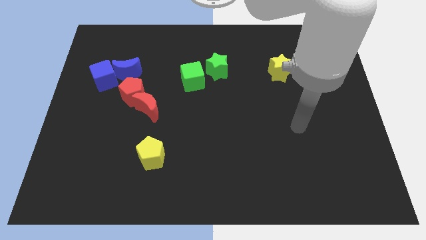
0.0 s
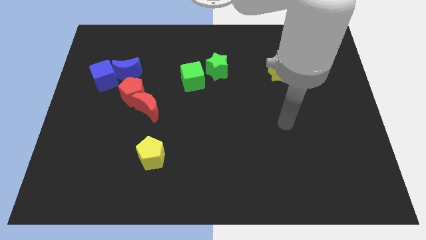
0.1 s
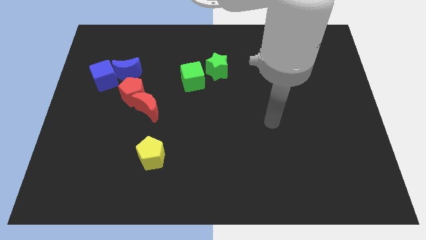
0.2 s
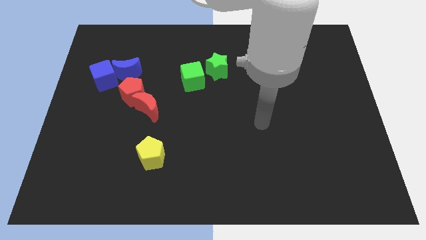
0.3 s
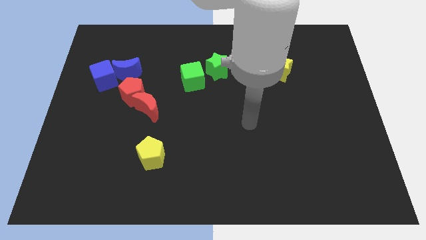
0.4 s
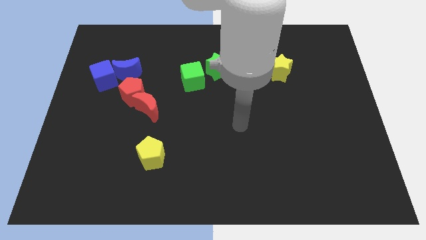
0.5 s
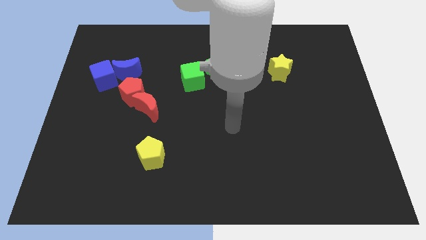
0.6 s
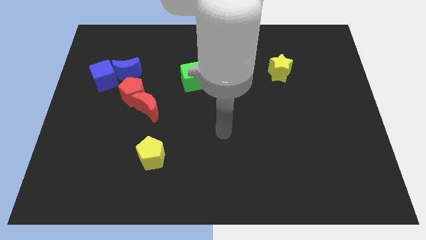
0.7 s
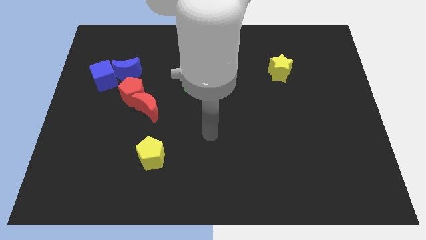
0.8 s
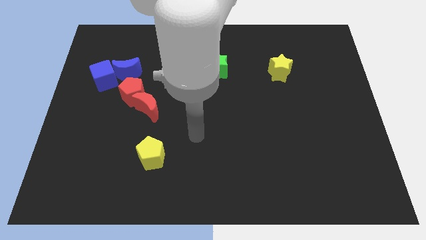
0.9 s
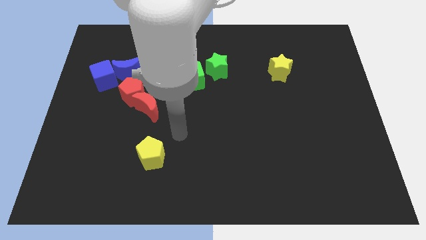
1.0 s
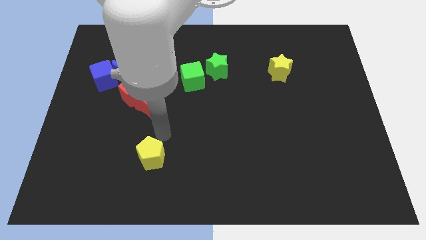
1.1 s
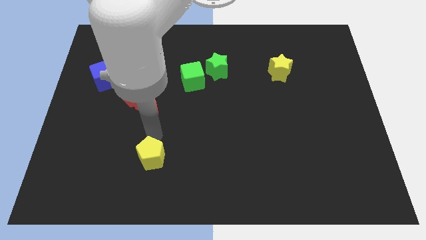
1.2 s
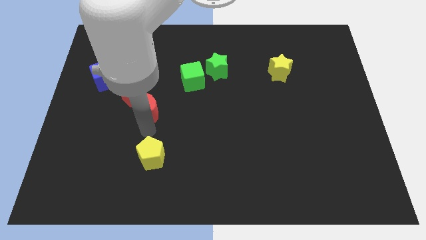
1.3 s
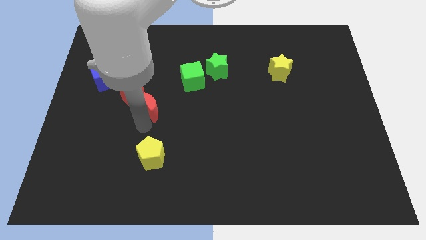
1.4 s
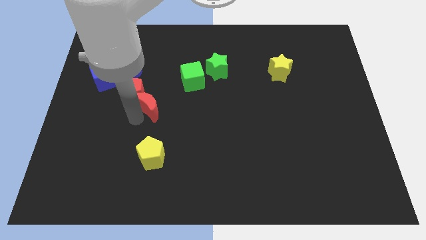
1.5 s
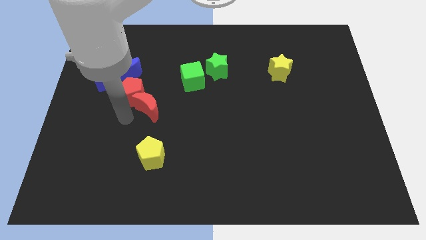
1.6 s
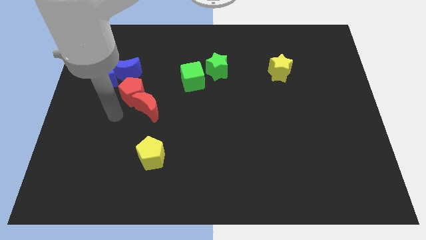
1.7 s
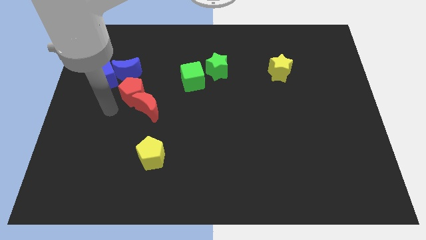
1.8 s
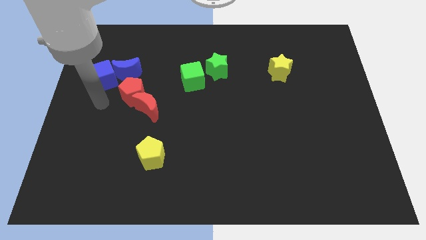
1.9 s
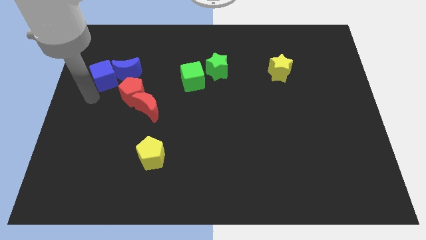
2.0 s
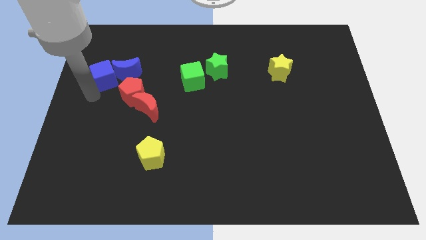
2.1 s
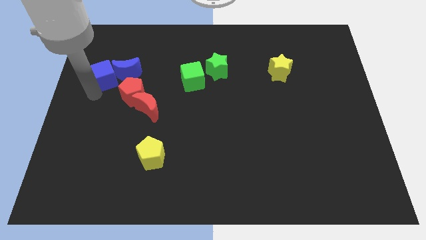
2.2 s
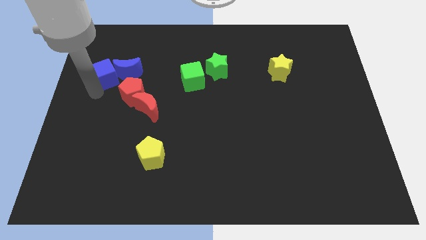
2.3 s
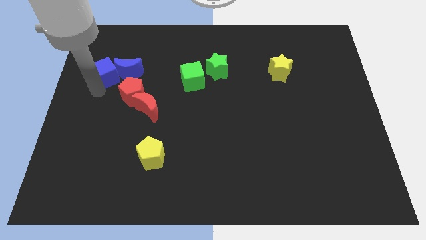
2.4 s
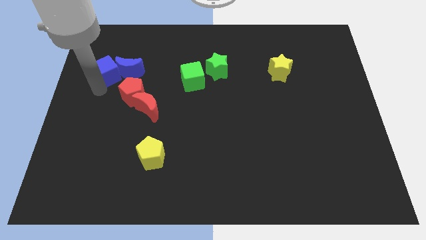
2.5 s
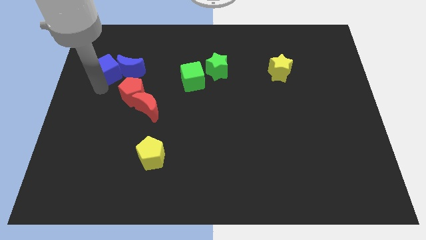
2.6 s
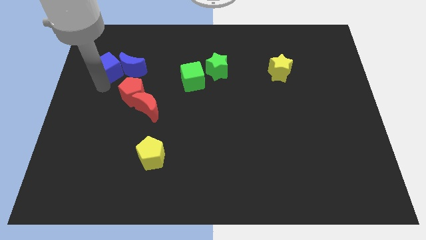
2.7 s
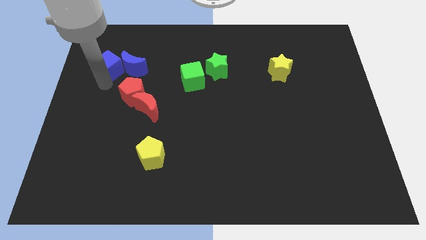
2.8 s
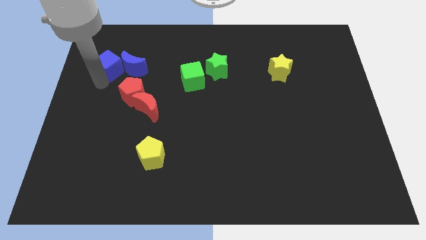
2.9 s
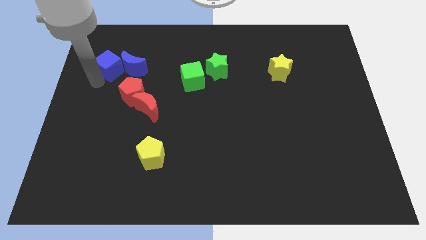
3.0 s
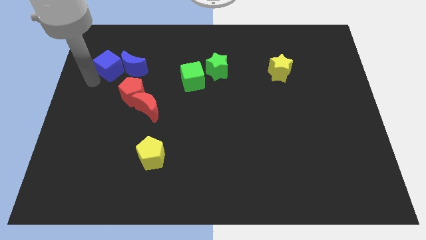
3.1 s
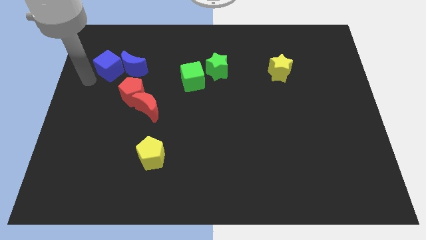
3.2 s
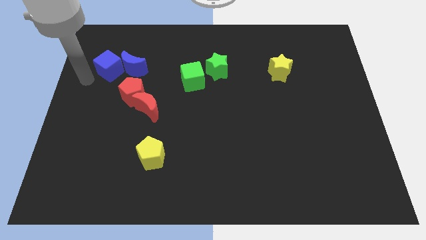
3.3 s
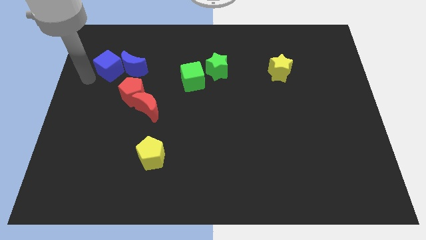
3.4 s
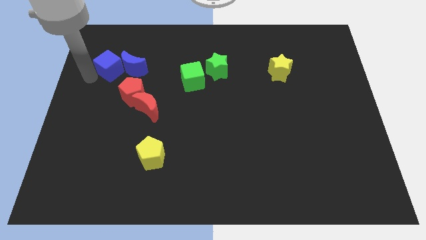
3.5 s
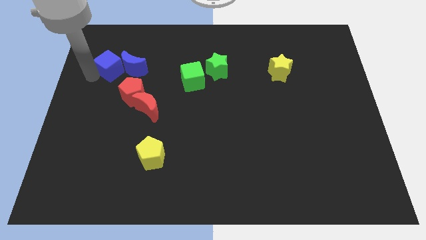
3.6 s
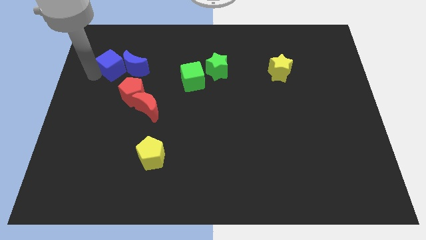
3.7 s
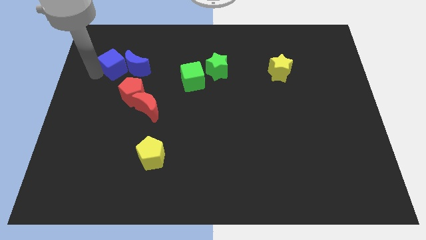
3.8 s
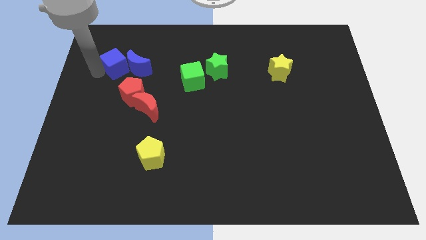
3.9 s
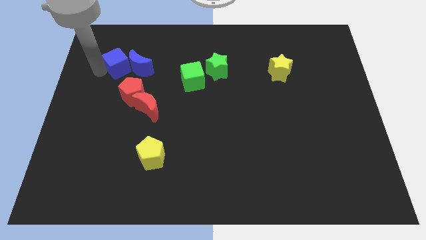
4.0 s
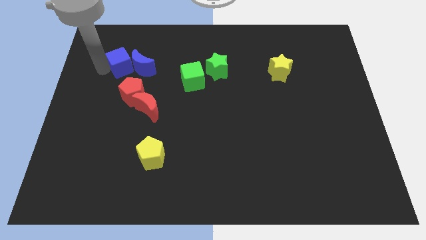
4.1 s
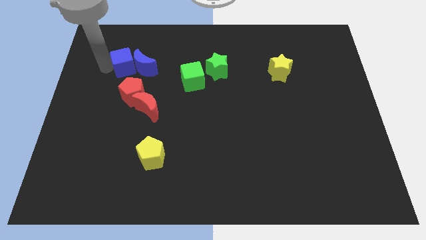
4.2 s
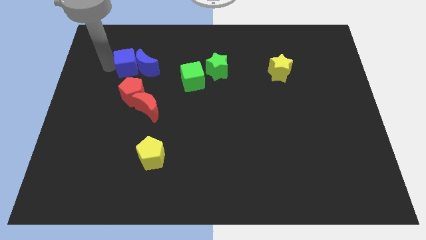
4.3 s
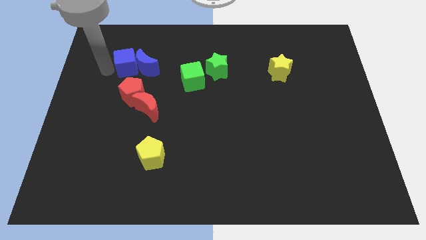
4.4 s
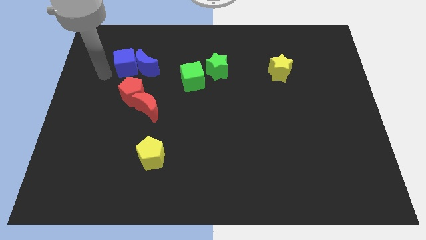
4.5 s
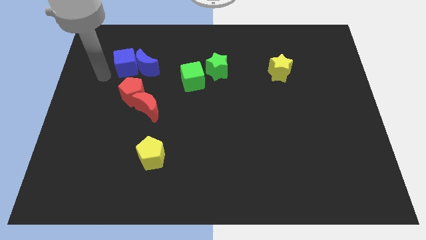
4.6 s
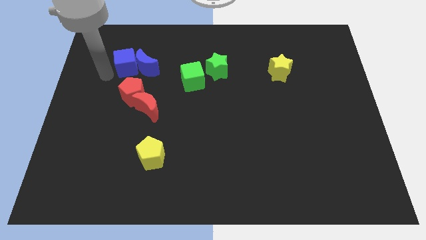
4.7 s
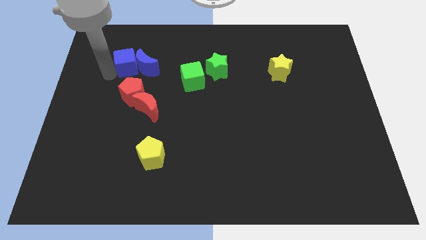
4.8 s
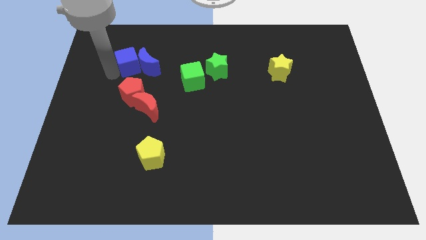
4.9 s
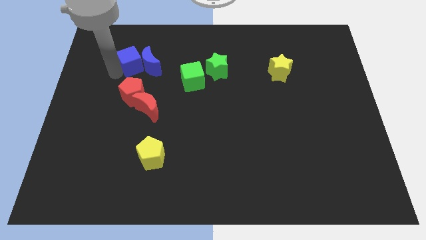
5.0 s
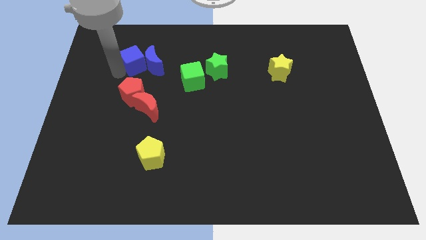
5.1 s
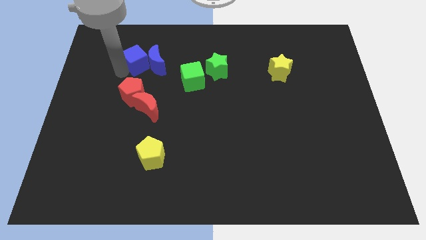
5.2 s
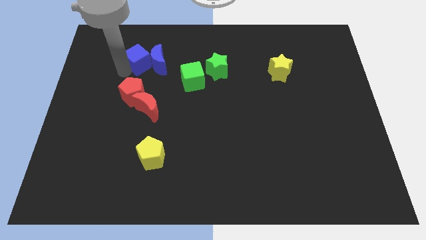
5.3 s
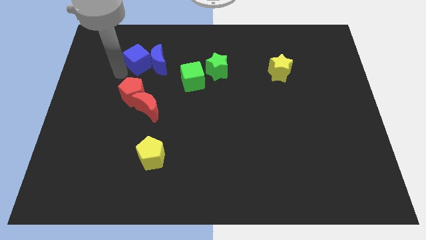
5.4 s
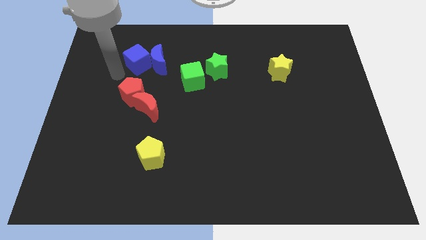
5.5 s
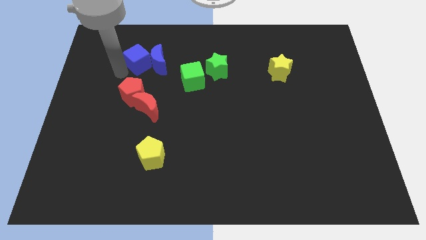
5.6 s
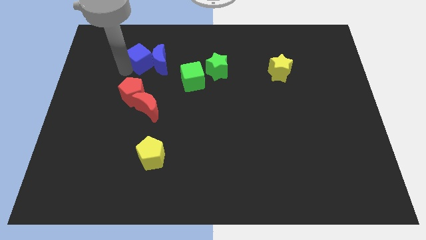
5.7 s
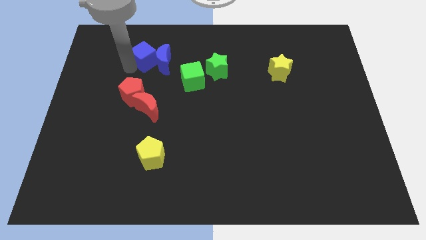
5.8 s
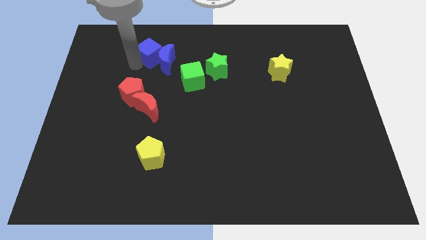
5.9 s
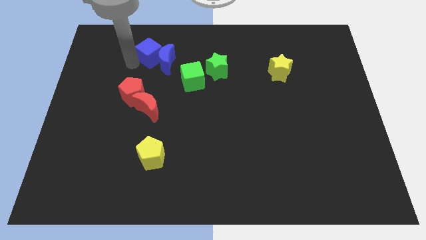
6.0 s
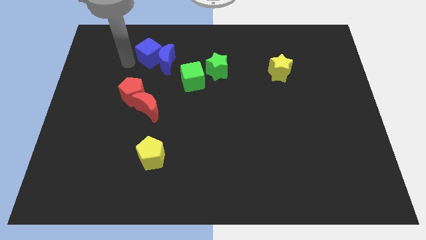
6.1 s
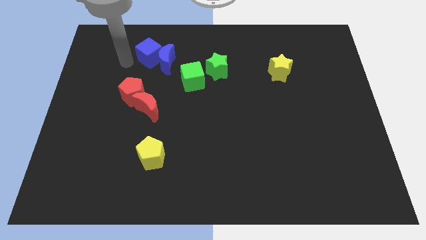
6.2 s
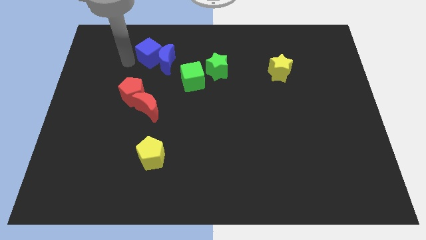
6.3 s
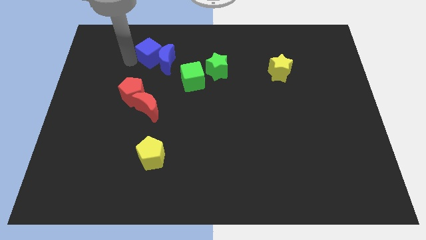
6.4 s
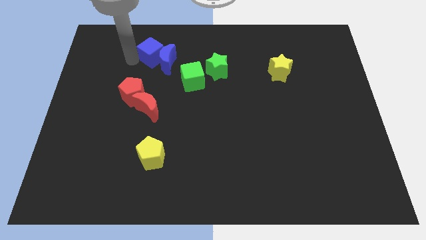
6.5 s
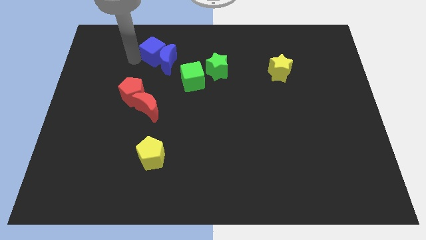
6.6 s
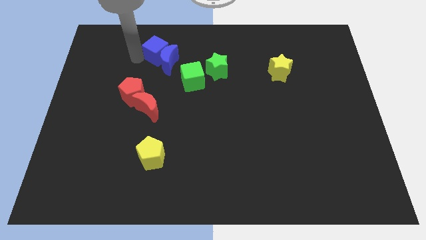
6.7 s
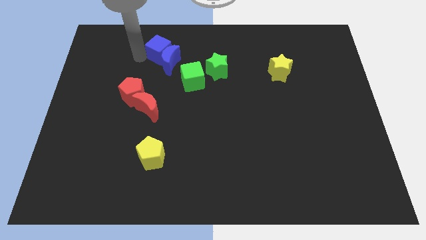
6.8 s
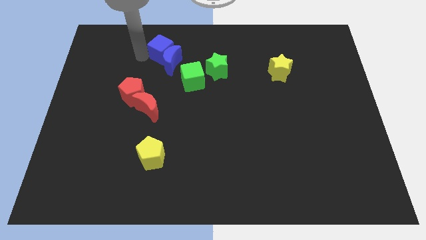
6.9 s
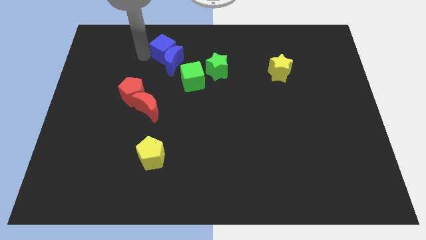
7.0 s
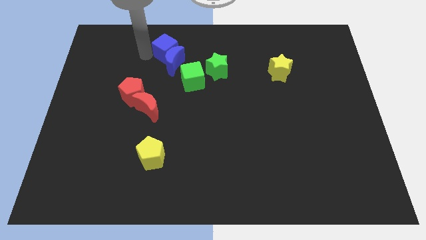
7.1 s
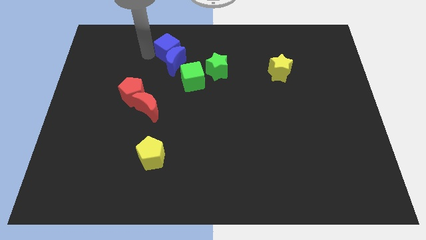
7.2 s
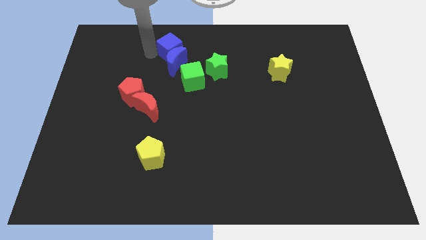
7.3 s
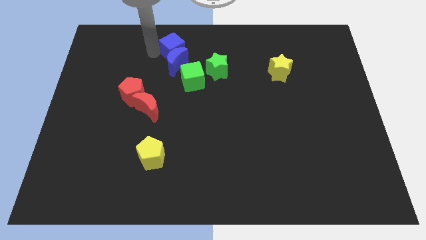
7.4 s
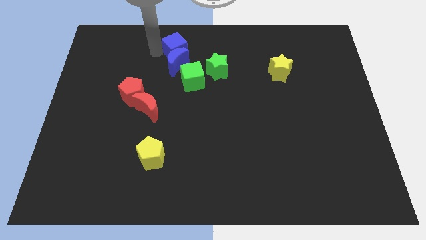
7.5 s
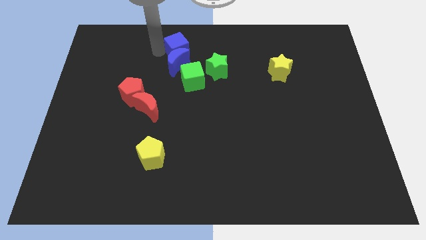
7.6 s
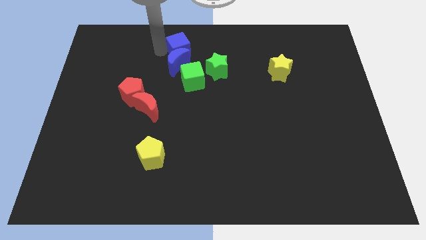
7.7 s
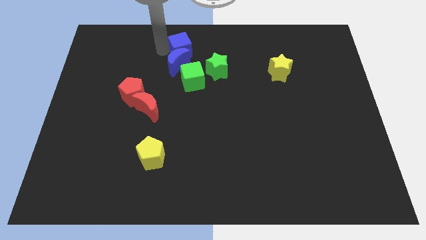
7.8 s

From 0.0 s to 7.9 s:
push the blue cube to the top
